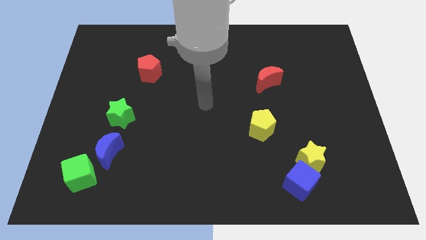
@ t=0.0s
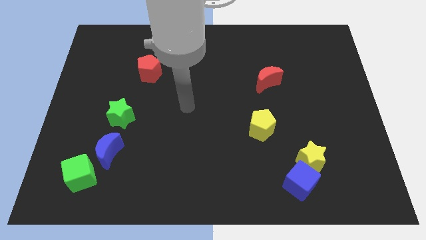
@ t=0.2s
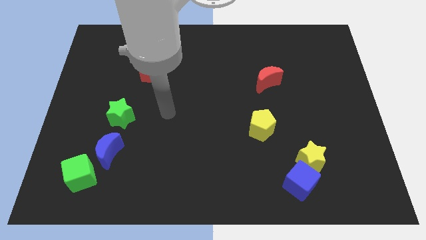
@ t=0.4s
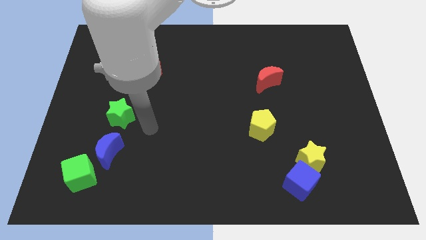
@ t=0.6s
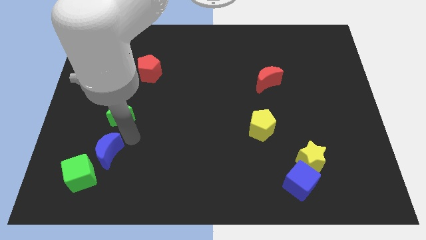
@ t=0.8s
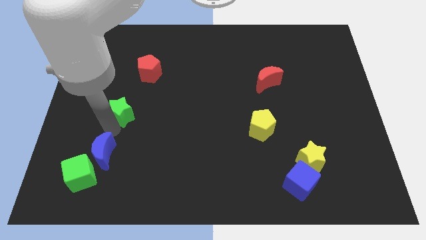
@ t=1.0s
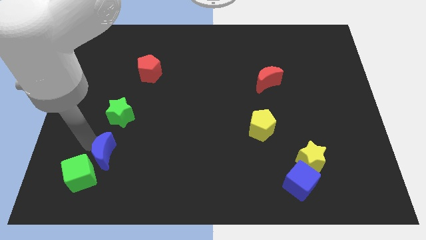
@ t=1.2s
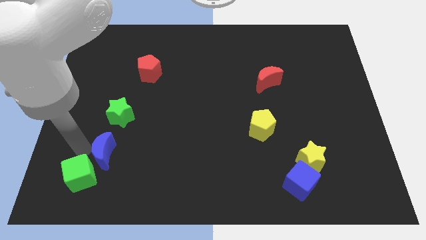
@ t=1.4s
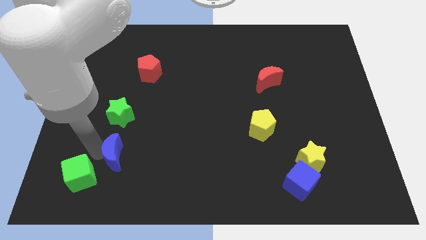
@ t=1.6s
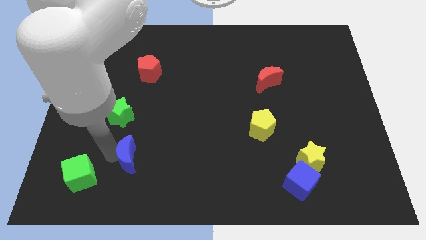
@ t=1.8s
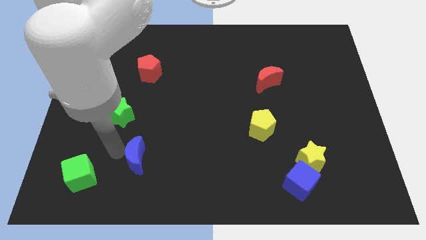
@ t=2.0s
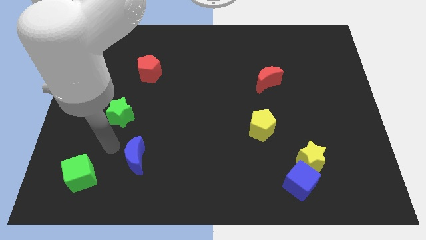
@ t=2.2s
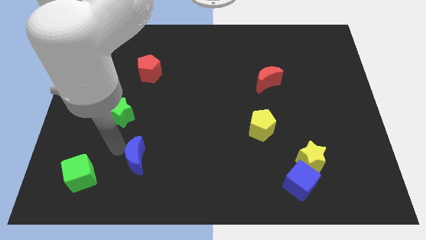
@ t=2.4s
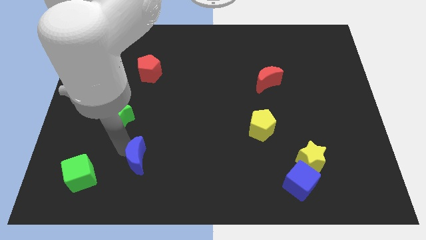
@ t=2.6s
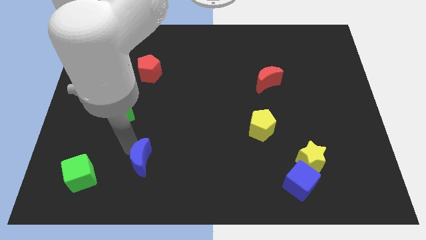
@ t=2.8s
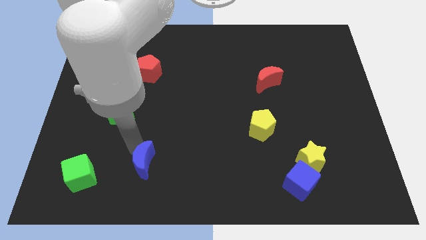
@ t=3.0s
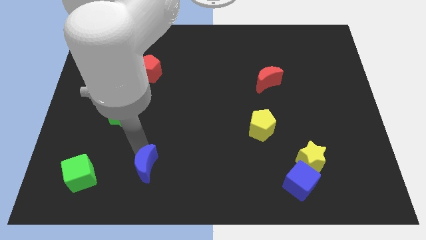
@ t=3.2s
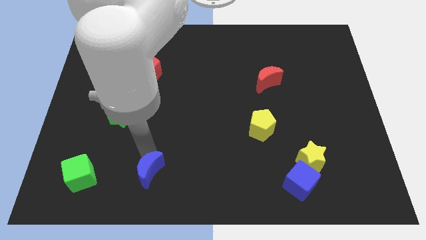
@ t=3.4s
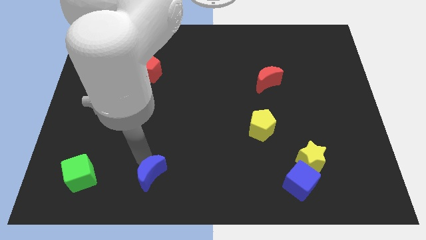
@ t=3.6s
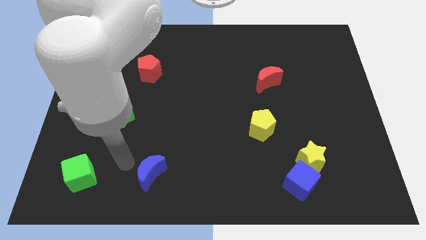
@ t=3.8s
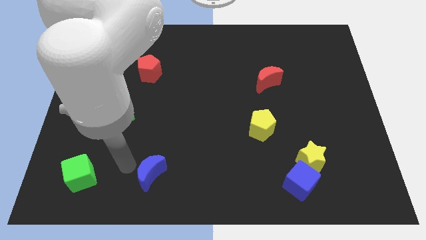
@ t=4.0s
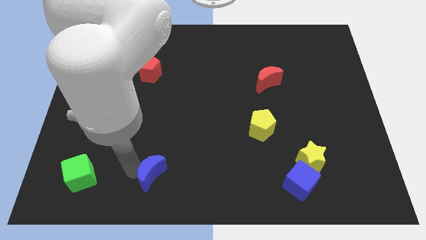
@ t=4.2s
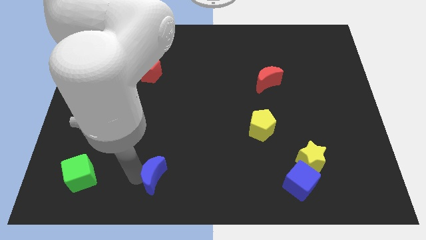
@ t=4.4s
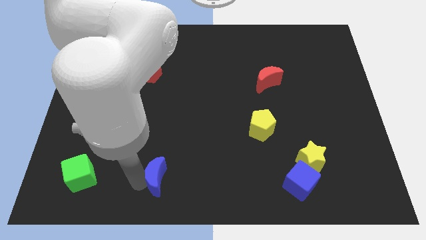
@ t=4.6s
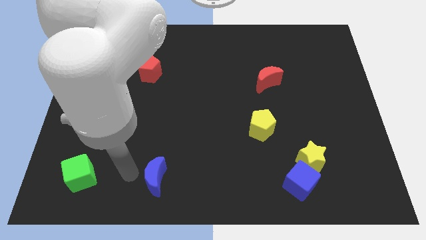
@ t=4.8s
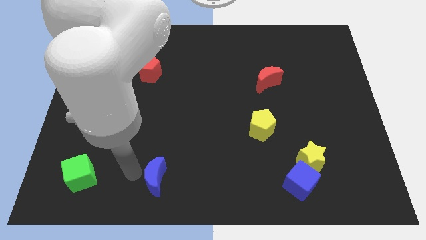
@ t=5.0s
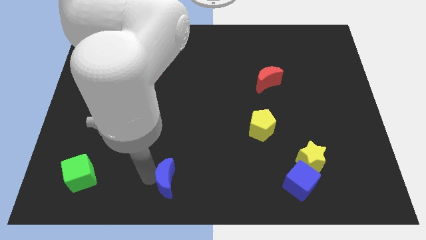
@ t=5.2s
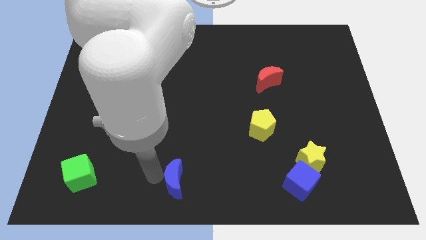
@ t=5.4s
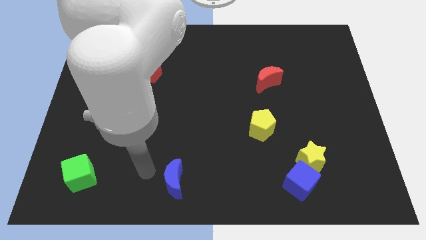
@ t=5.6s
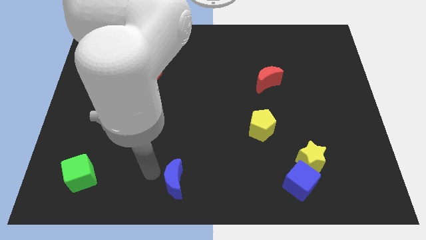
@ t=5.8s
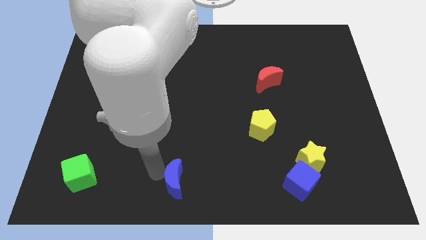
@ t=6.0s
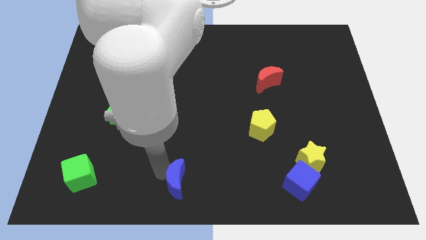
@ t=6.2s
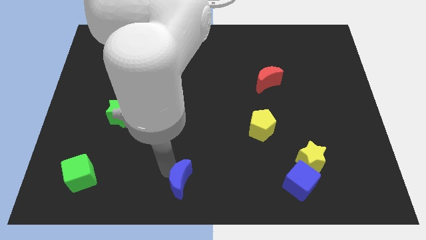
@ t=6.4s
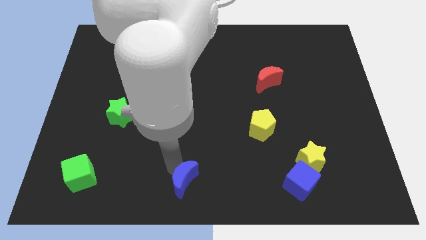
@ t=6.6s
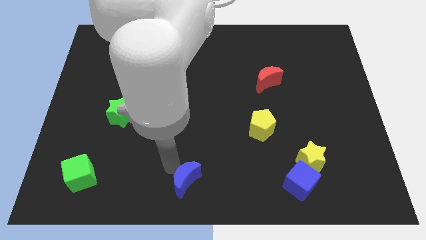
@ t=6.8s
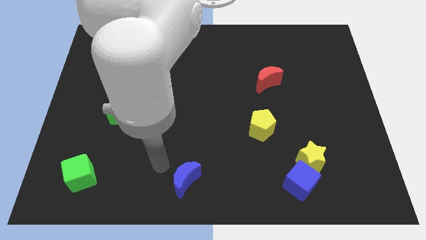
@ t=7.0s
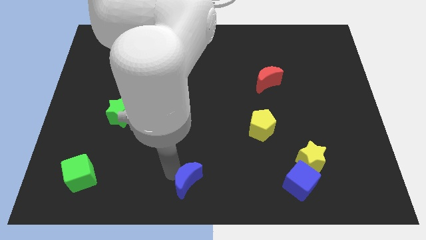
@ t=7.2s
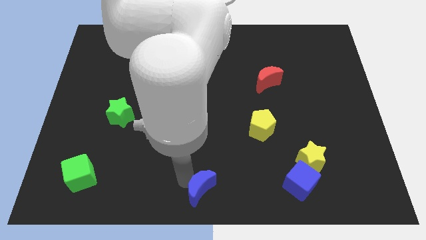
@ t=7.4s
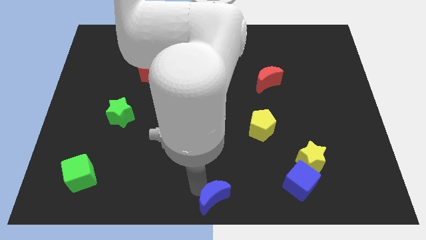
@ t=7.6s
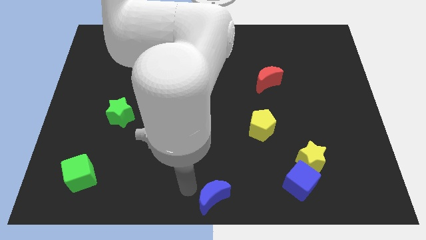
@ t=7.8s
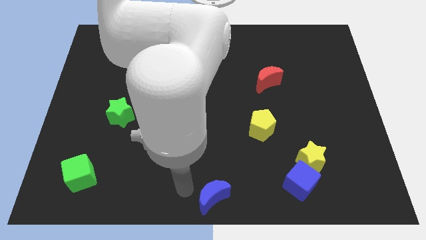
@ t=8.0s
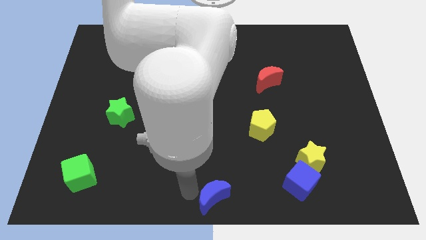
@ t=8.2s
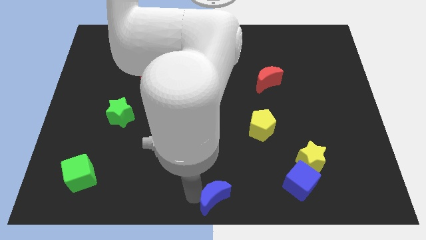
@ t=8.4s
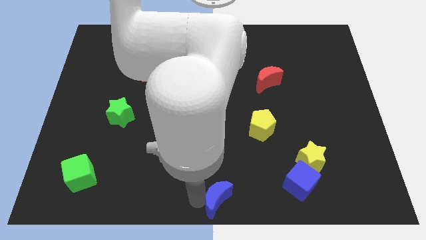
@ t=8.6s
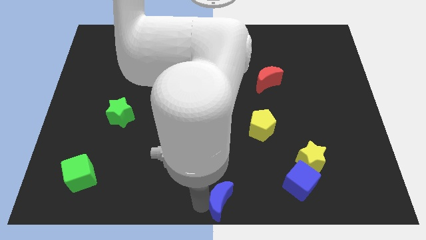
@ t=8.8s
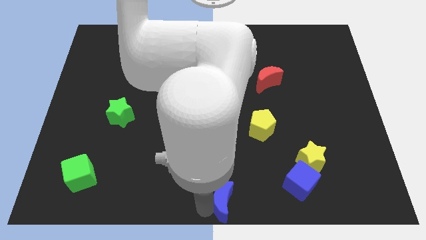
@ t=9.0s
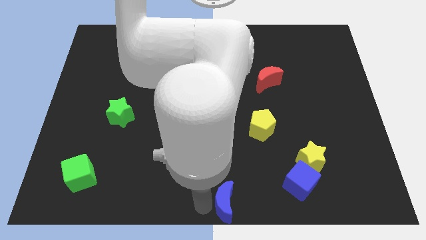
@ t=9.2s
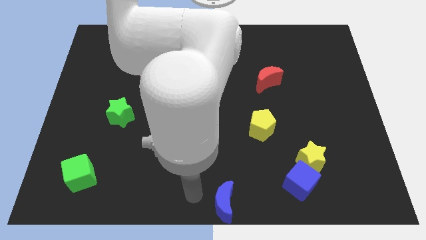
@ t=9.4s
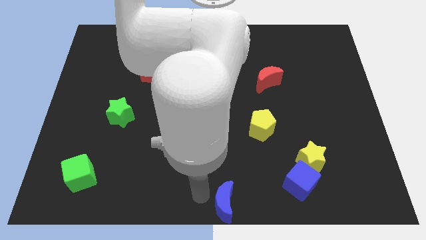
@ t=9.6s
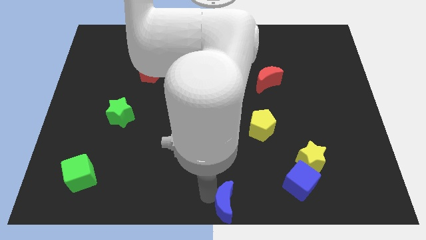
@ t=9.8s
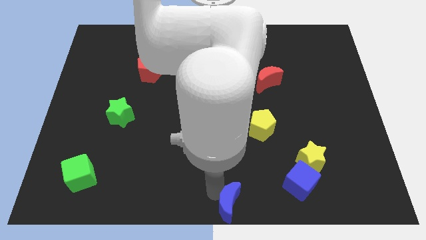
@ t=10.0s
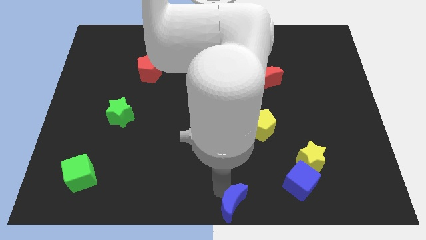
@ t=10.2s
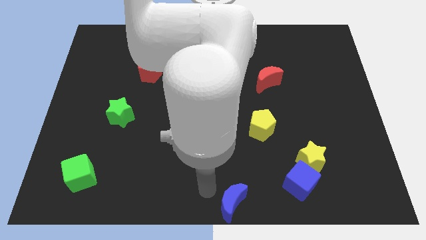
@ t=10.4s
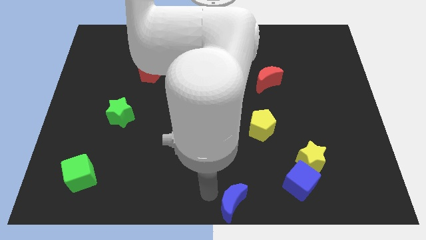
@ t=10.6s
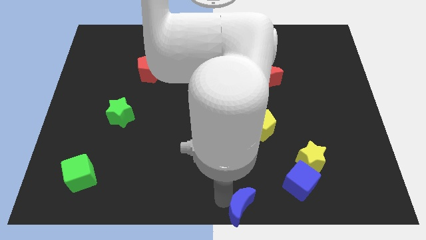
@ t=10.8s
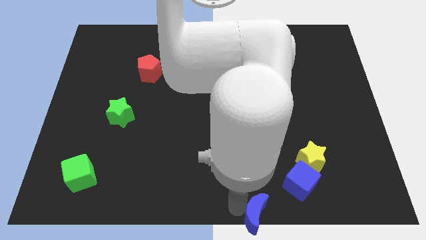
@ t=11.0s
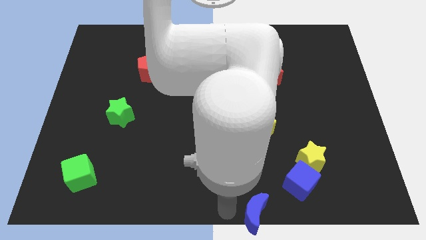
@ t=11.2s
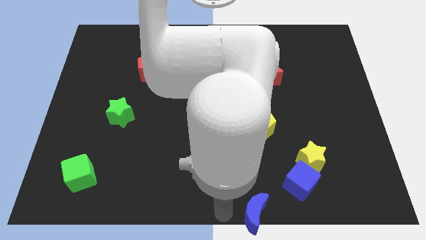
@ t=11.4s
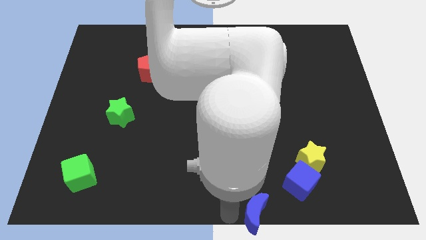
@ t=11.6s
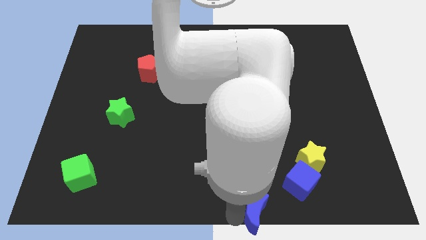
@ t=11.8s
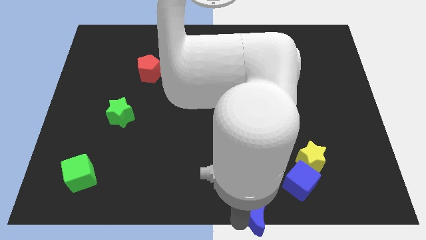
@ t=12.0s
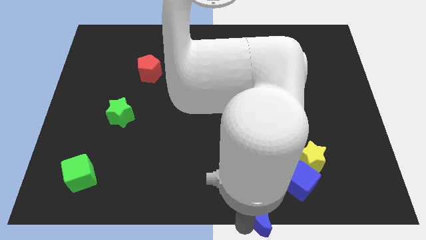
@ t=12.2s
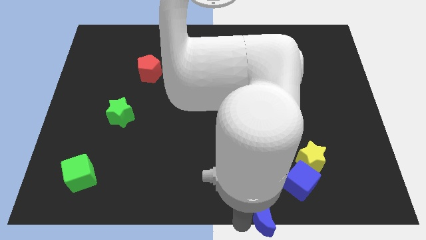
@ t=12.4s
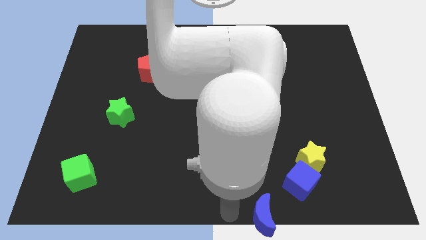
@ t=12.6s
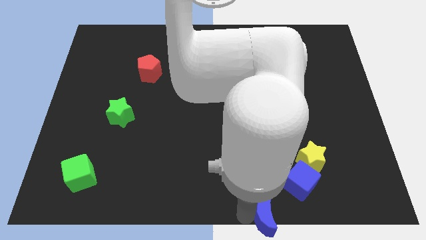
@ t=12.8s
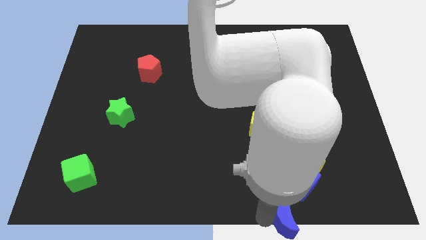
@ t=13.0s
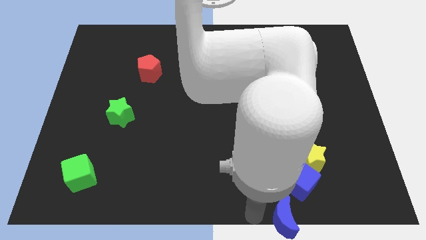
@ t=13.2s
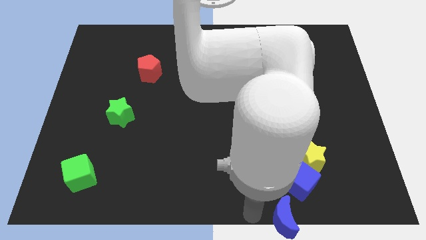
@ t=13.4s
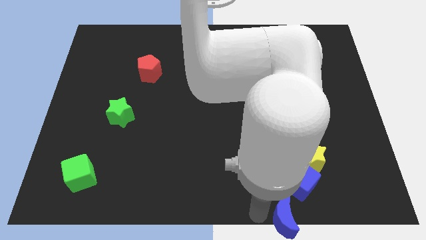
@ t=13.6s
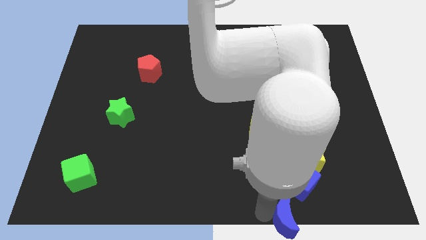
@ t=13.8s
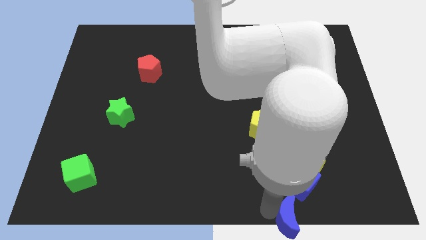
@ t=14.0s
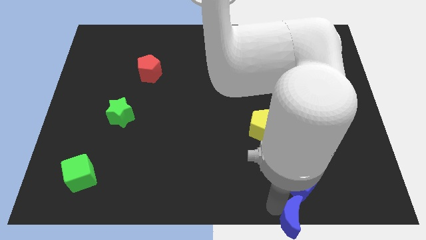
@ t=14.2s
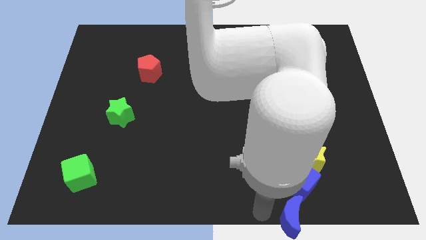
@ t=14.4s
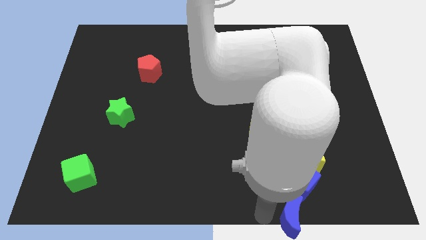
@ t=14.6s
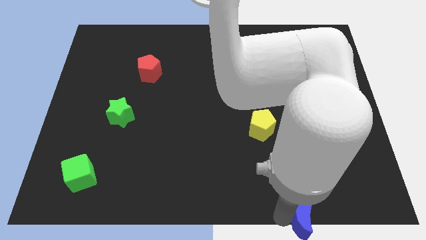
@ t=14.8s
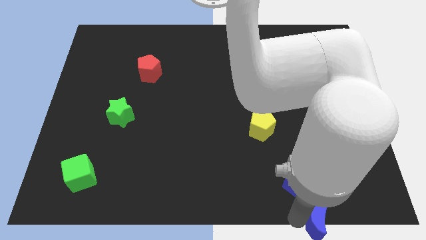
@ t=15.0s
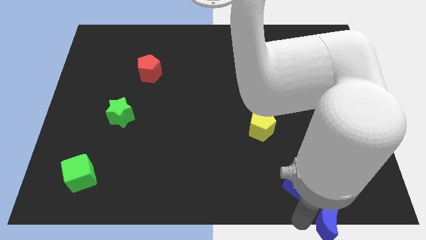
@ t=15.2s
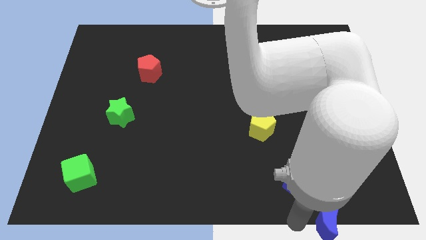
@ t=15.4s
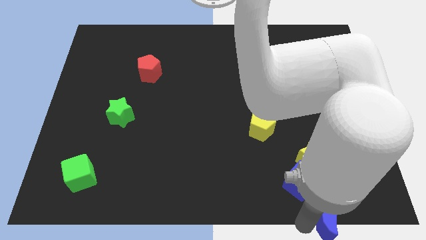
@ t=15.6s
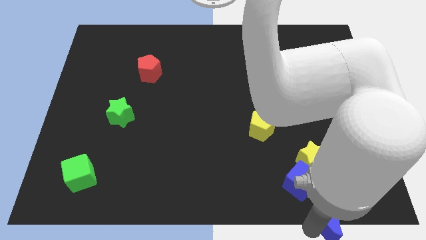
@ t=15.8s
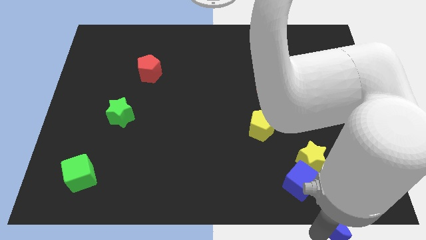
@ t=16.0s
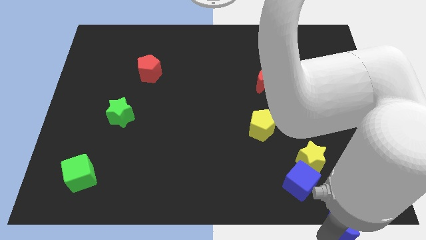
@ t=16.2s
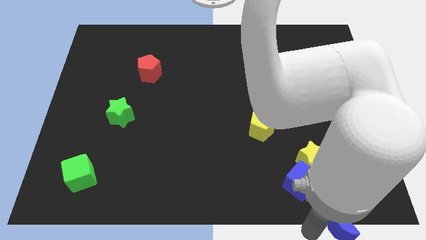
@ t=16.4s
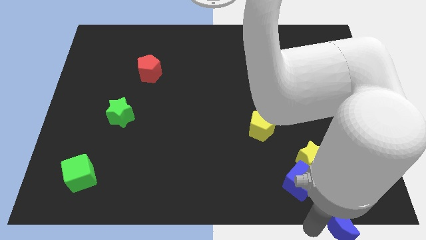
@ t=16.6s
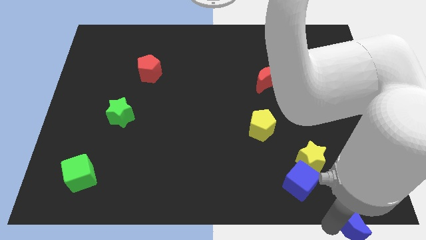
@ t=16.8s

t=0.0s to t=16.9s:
push the blue moon to the bottom right
